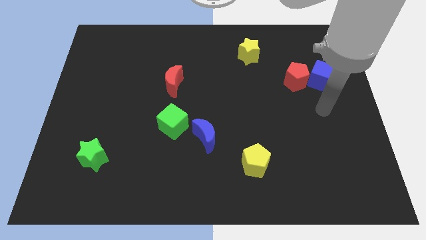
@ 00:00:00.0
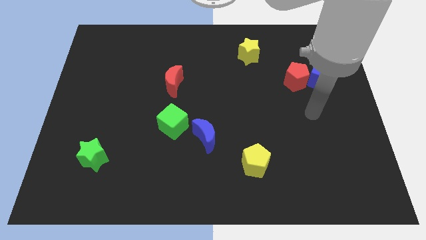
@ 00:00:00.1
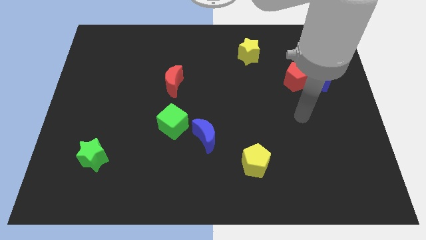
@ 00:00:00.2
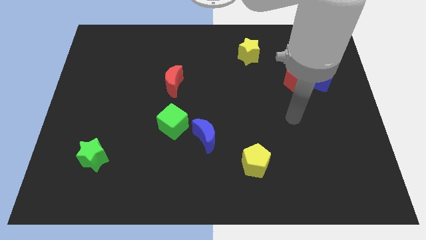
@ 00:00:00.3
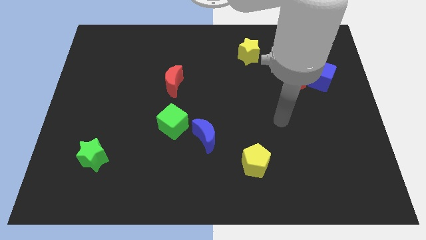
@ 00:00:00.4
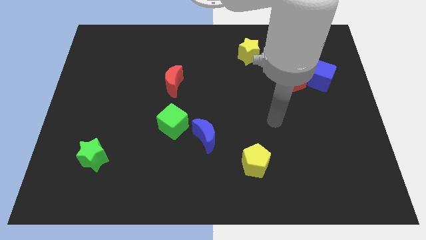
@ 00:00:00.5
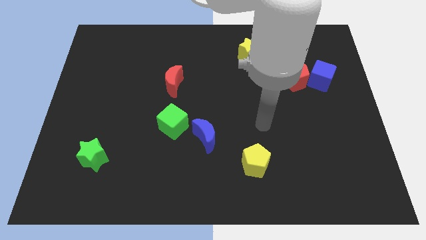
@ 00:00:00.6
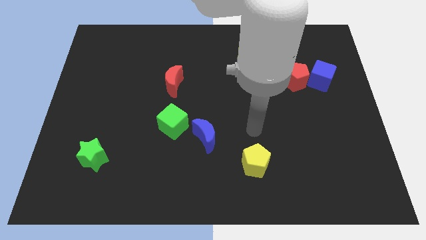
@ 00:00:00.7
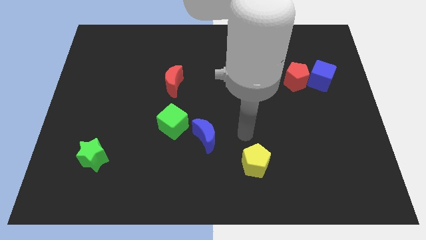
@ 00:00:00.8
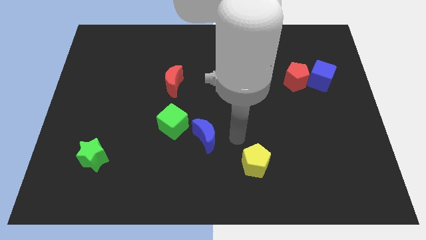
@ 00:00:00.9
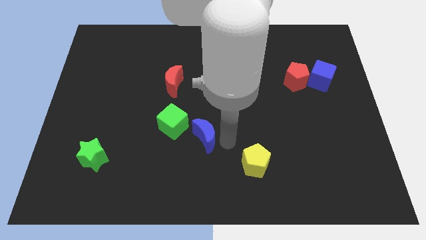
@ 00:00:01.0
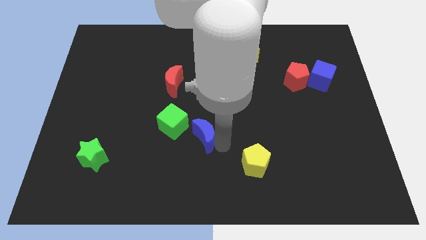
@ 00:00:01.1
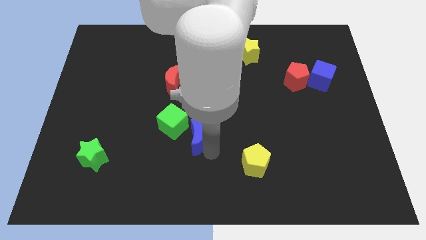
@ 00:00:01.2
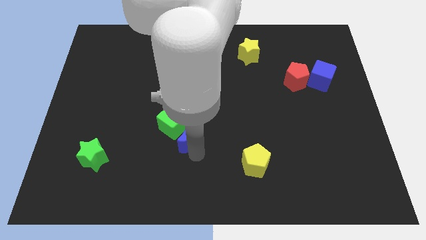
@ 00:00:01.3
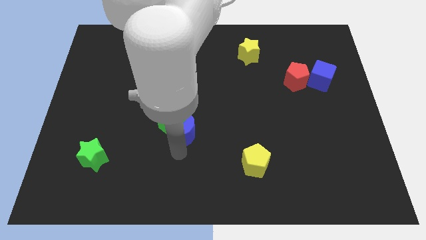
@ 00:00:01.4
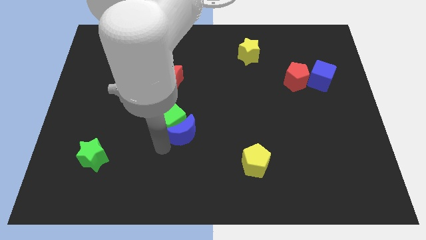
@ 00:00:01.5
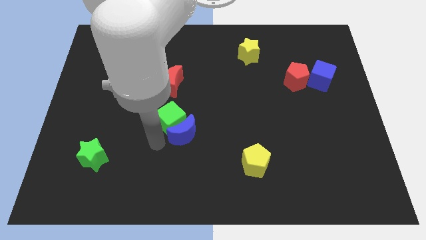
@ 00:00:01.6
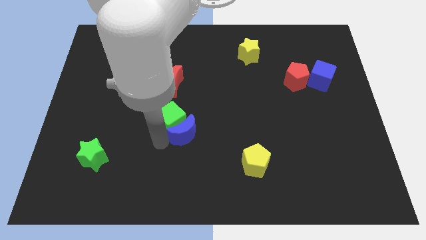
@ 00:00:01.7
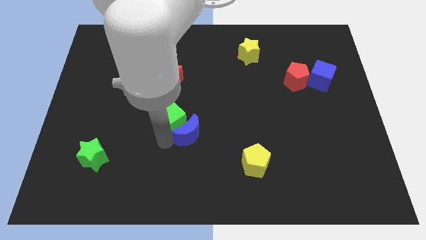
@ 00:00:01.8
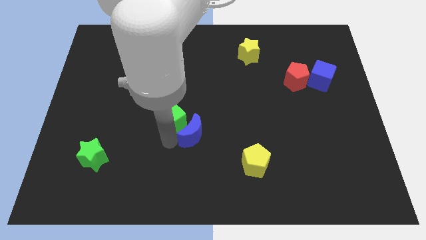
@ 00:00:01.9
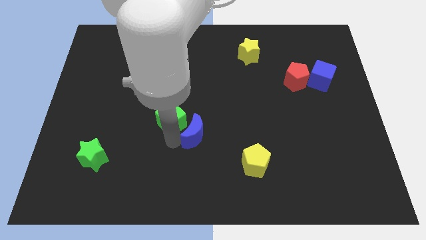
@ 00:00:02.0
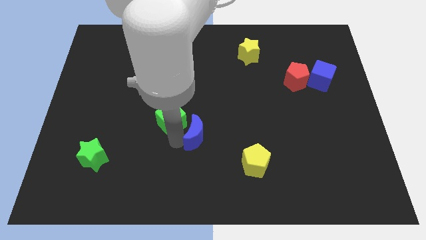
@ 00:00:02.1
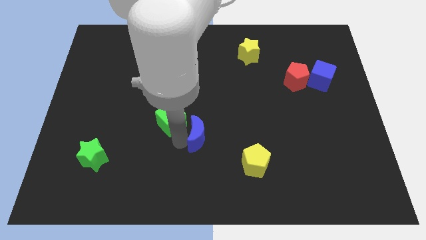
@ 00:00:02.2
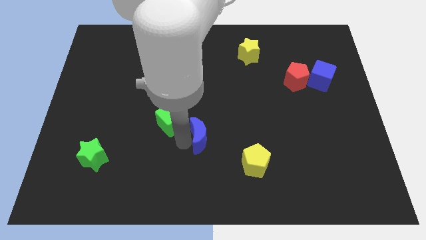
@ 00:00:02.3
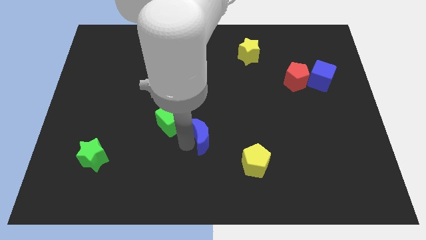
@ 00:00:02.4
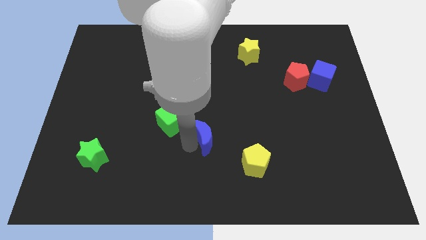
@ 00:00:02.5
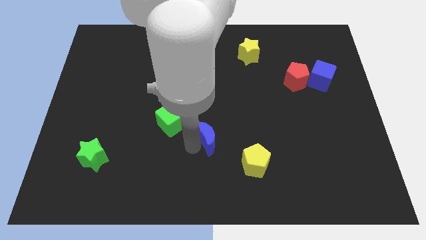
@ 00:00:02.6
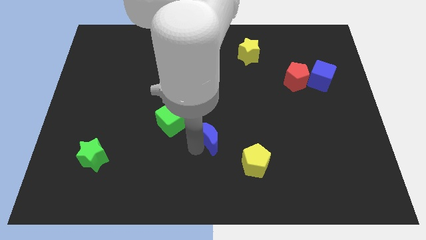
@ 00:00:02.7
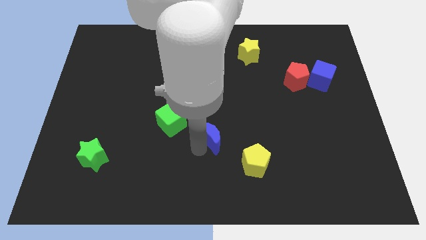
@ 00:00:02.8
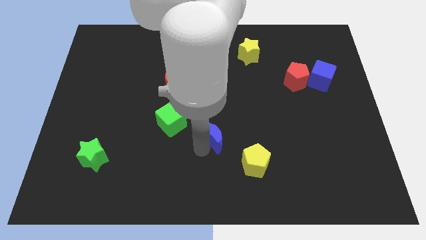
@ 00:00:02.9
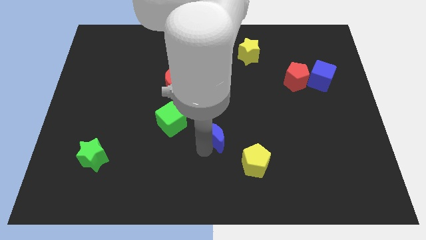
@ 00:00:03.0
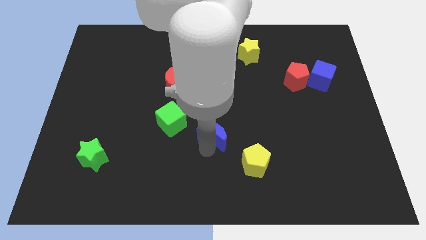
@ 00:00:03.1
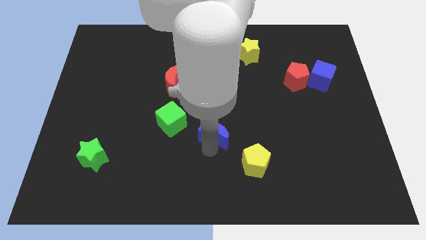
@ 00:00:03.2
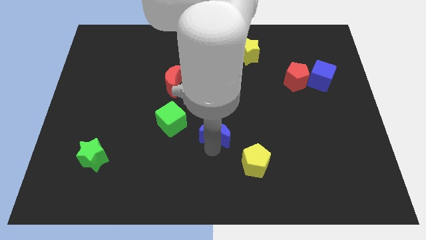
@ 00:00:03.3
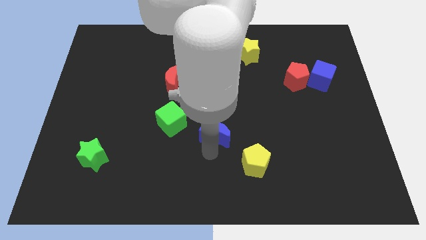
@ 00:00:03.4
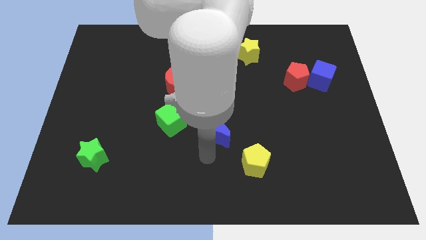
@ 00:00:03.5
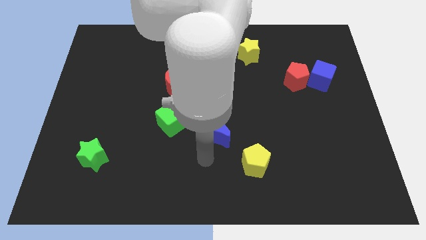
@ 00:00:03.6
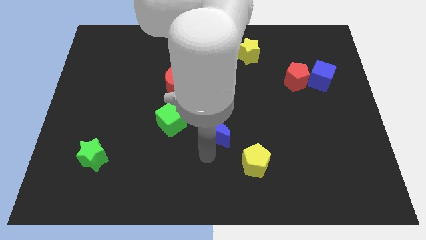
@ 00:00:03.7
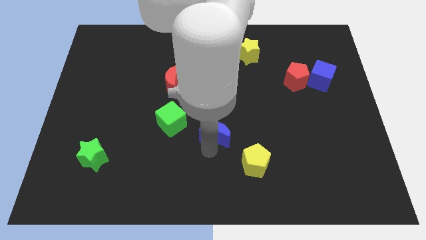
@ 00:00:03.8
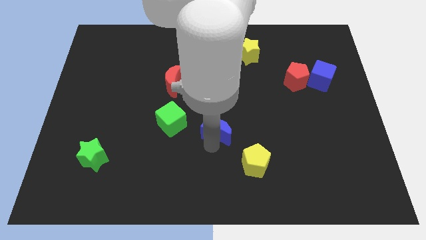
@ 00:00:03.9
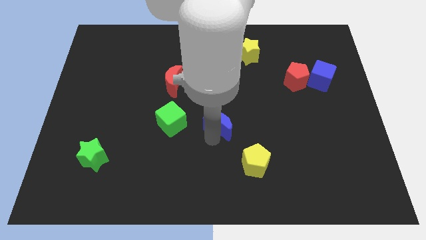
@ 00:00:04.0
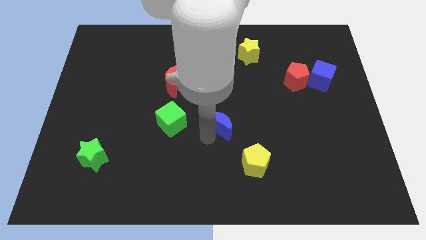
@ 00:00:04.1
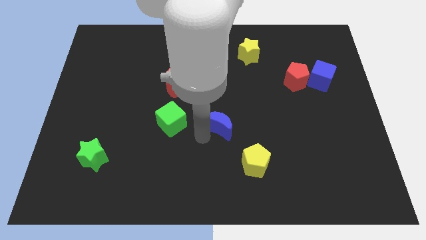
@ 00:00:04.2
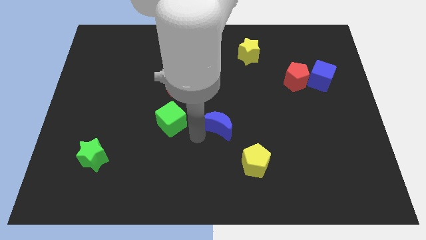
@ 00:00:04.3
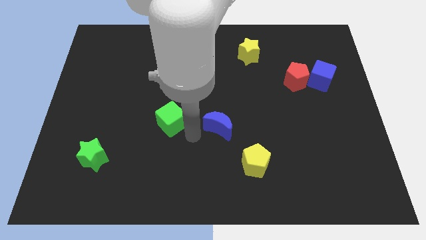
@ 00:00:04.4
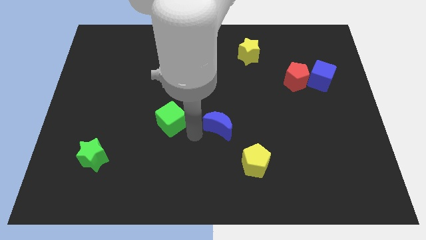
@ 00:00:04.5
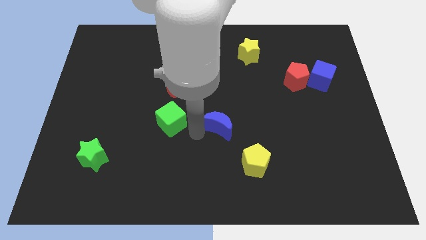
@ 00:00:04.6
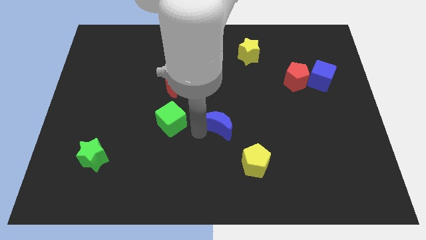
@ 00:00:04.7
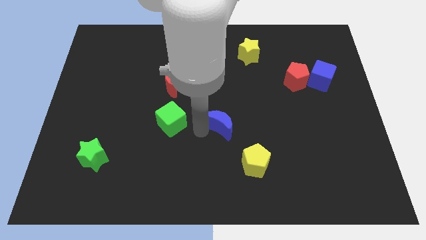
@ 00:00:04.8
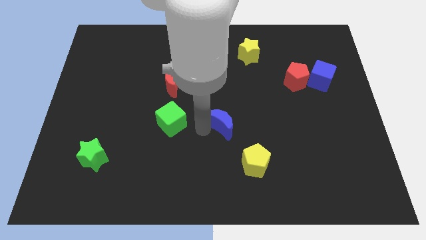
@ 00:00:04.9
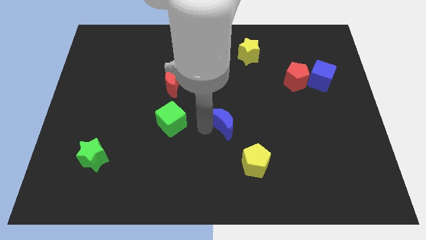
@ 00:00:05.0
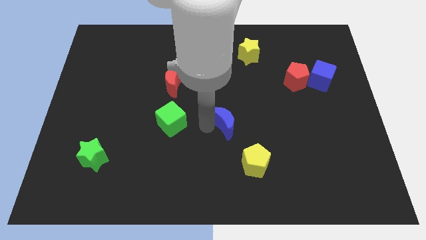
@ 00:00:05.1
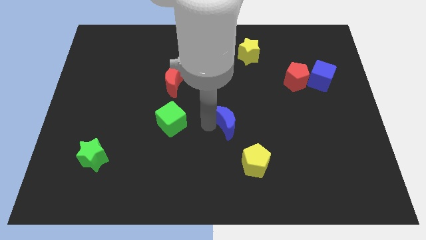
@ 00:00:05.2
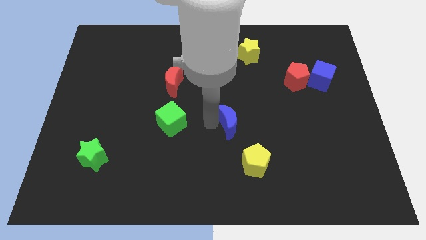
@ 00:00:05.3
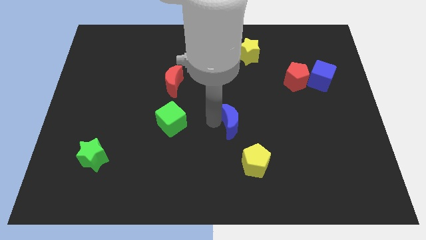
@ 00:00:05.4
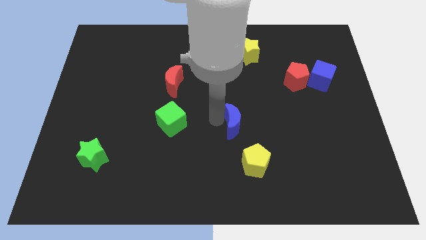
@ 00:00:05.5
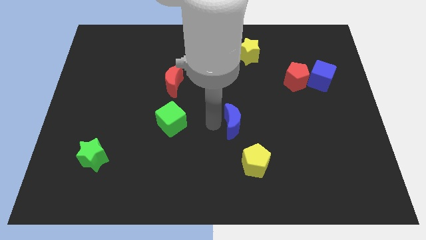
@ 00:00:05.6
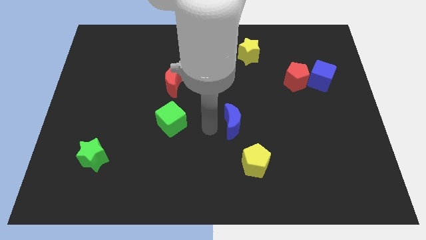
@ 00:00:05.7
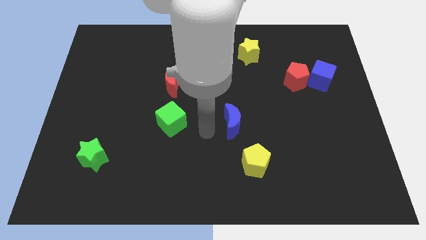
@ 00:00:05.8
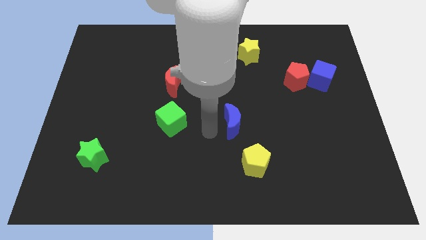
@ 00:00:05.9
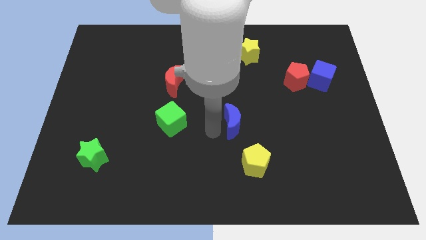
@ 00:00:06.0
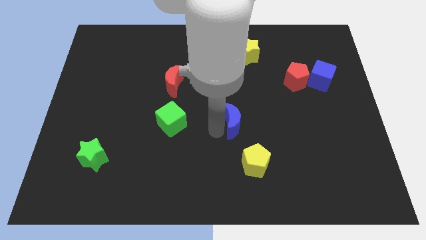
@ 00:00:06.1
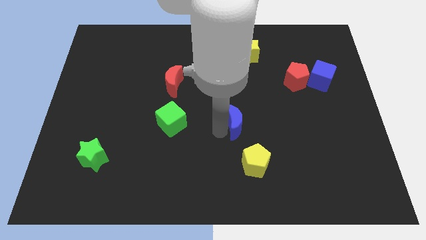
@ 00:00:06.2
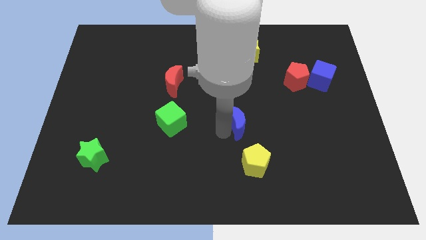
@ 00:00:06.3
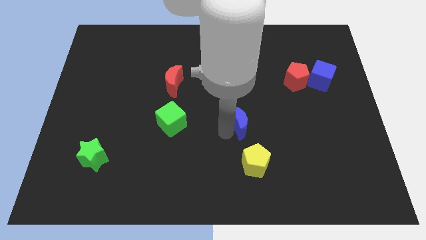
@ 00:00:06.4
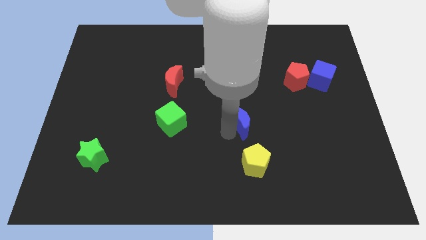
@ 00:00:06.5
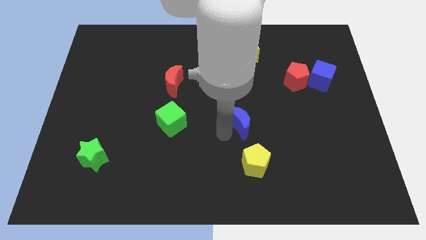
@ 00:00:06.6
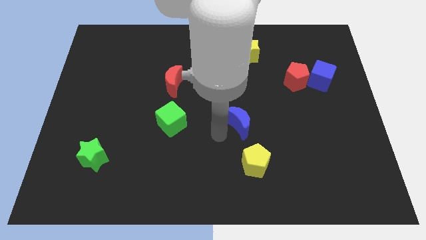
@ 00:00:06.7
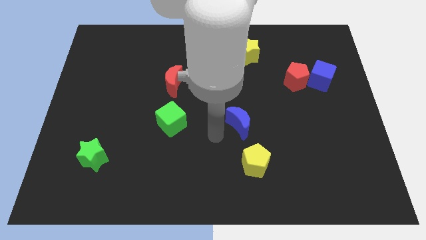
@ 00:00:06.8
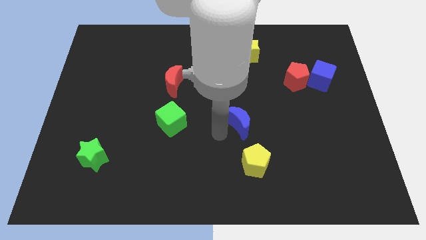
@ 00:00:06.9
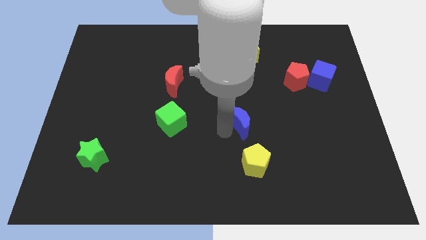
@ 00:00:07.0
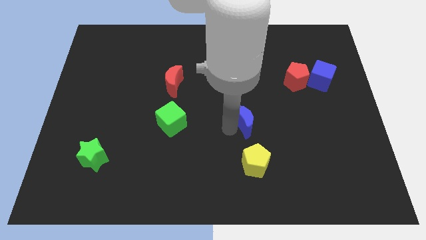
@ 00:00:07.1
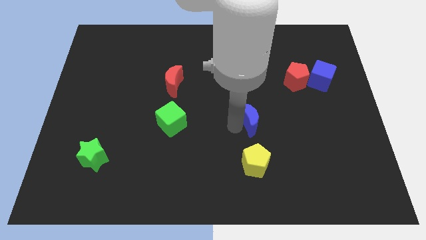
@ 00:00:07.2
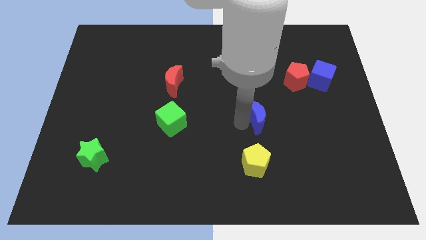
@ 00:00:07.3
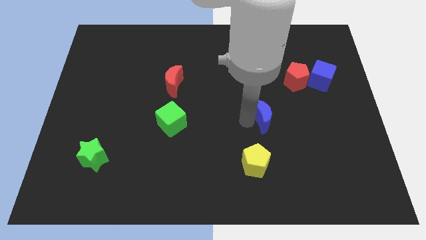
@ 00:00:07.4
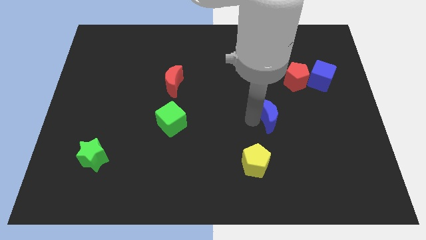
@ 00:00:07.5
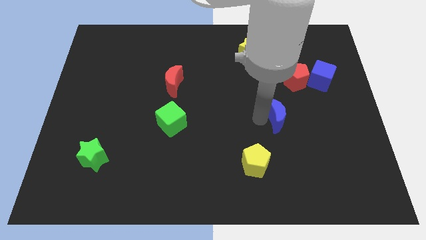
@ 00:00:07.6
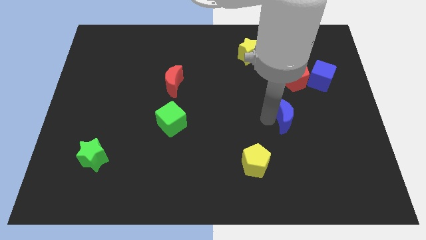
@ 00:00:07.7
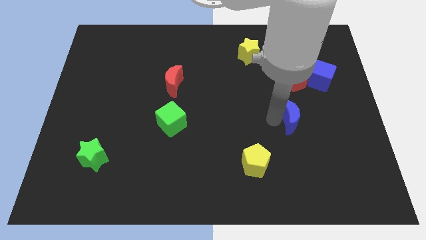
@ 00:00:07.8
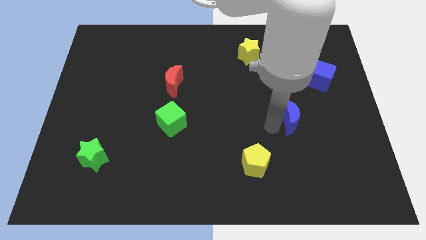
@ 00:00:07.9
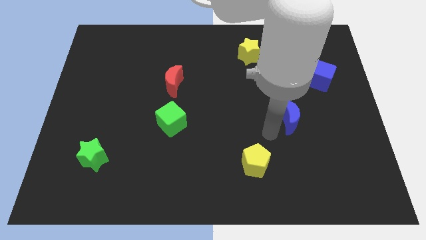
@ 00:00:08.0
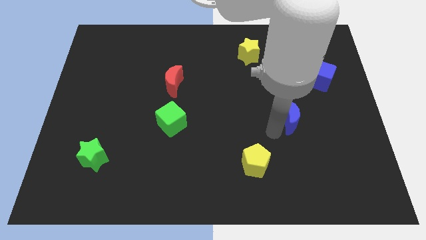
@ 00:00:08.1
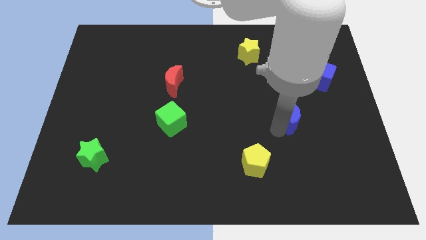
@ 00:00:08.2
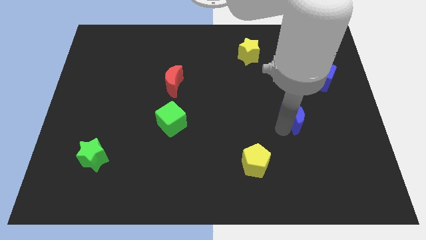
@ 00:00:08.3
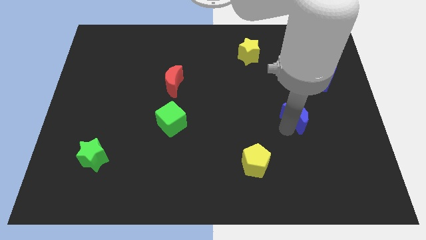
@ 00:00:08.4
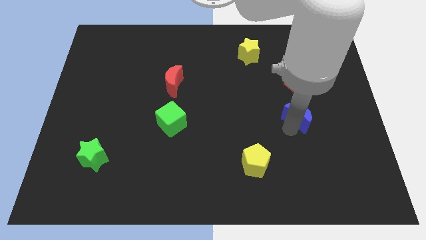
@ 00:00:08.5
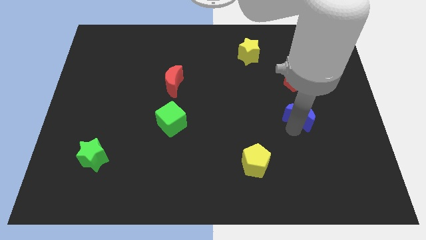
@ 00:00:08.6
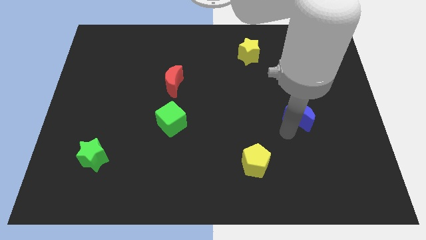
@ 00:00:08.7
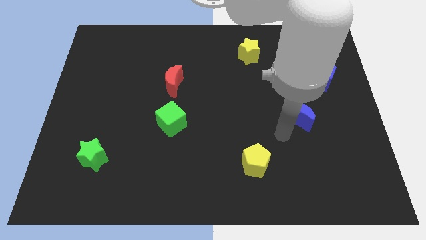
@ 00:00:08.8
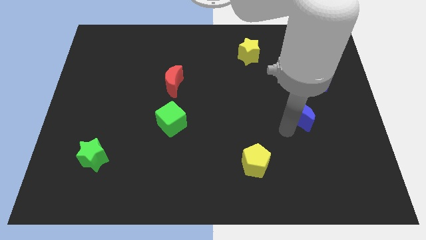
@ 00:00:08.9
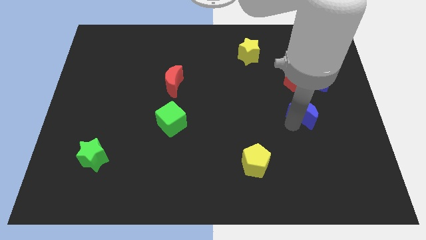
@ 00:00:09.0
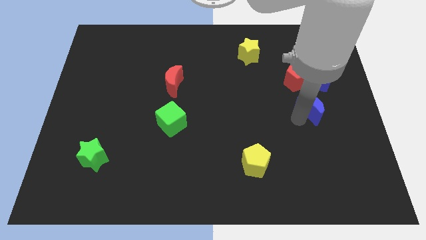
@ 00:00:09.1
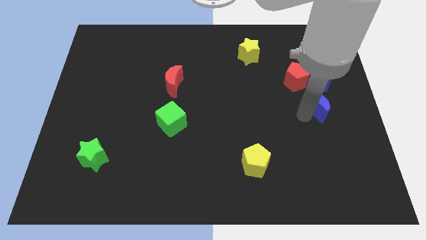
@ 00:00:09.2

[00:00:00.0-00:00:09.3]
put the blue moon to the bottom right of the red pentagon
